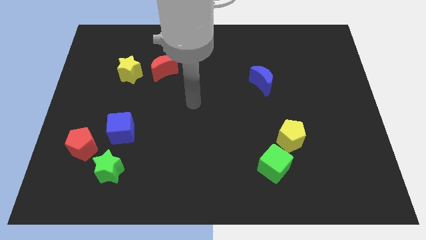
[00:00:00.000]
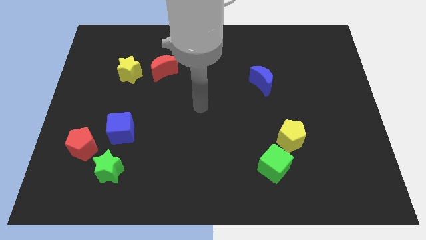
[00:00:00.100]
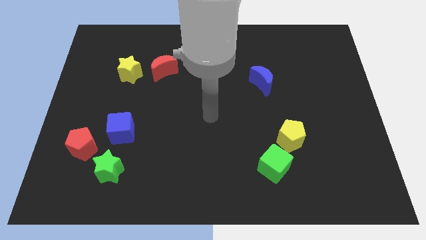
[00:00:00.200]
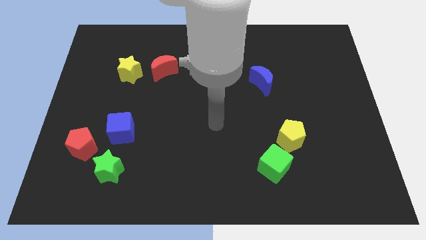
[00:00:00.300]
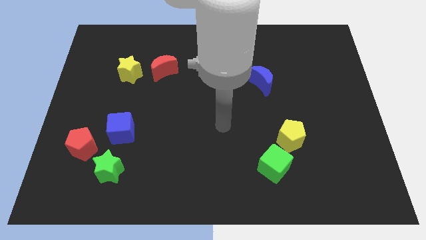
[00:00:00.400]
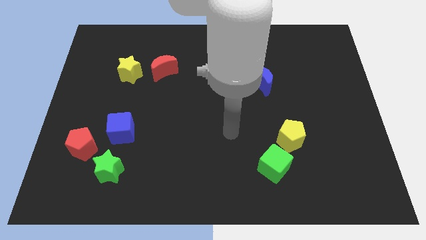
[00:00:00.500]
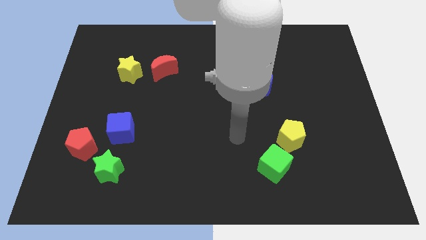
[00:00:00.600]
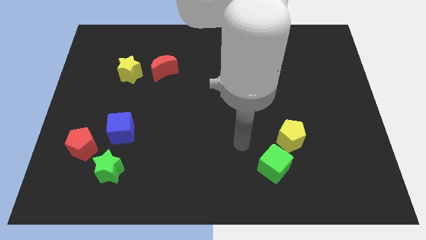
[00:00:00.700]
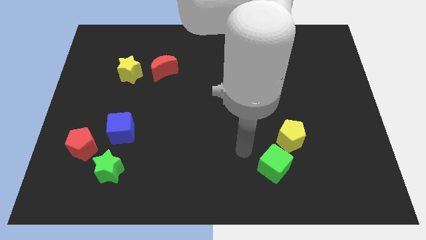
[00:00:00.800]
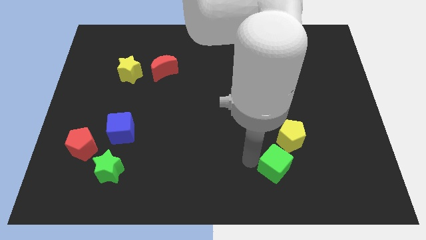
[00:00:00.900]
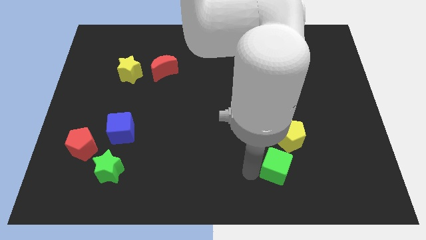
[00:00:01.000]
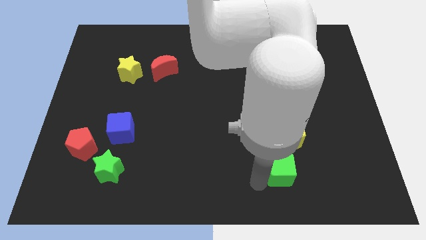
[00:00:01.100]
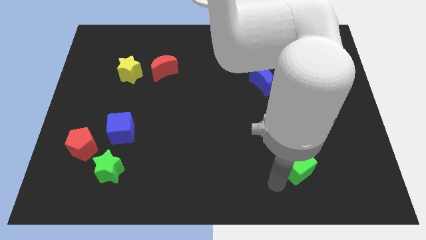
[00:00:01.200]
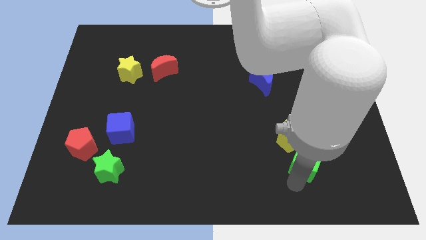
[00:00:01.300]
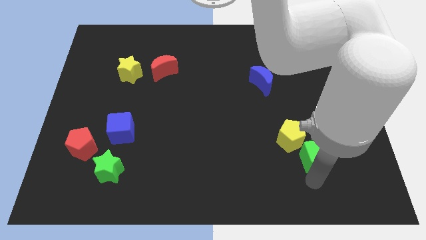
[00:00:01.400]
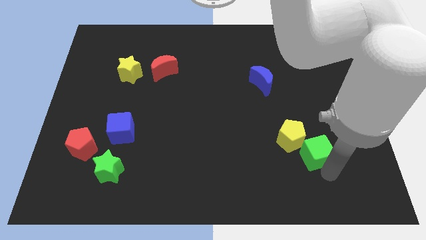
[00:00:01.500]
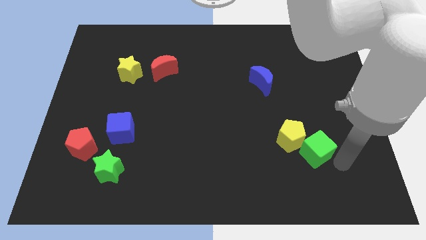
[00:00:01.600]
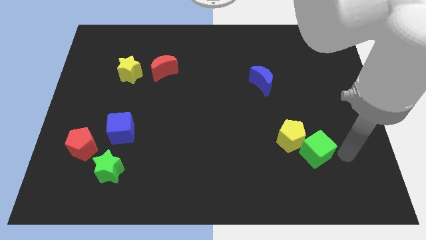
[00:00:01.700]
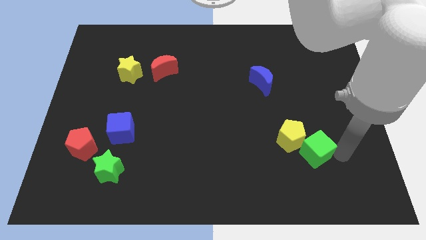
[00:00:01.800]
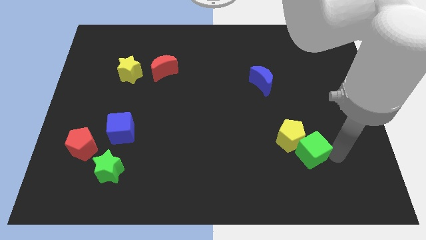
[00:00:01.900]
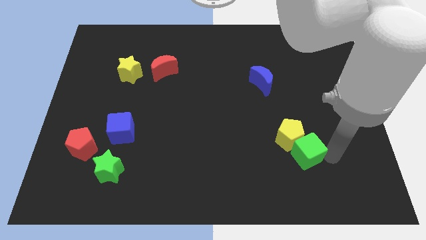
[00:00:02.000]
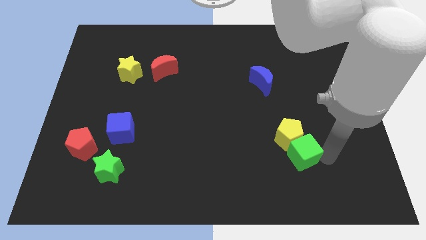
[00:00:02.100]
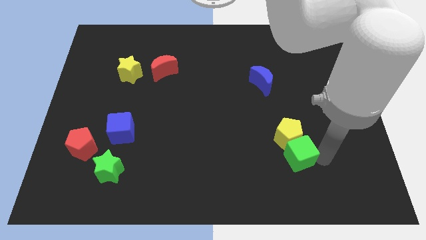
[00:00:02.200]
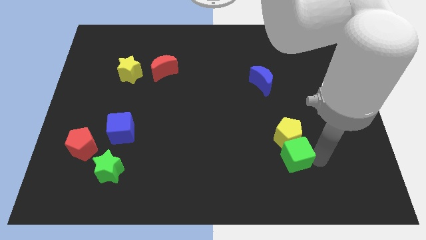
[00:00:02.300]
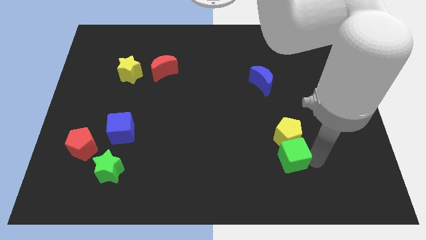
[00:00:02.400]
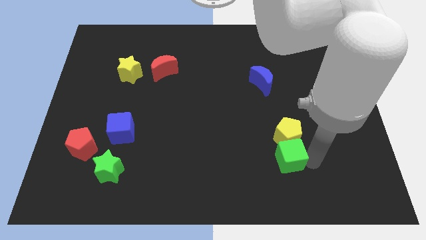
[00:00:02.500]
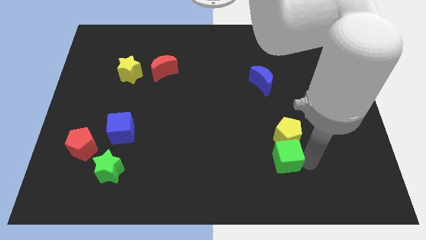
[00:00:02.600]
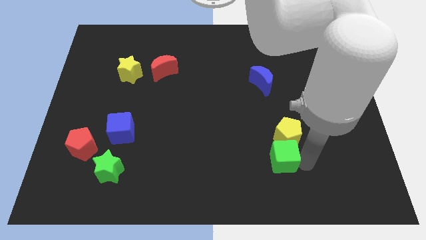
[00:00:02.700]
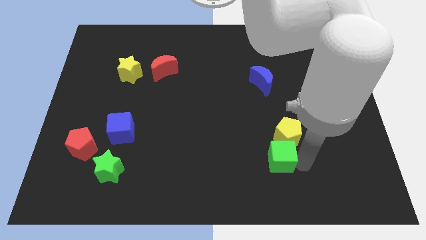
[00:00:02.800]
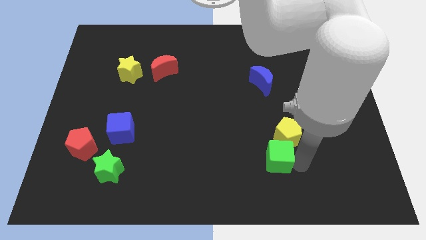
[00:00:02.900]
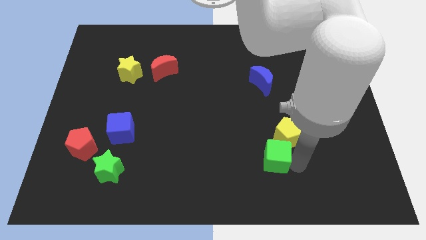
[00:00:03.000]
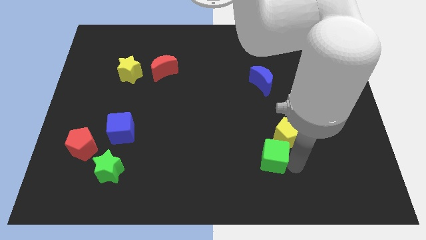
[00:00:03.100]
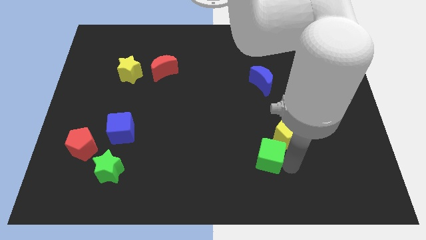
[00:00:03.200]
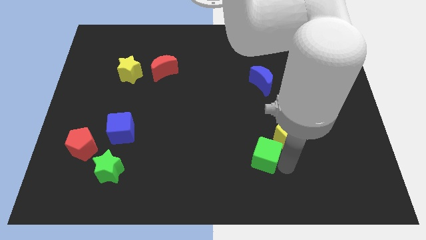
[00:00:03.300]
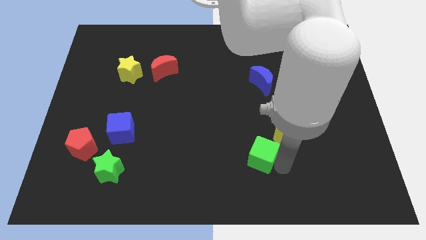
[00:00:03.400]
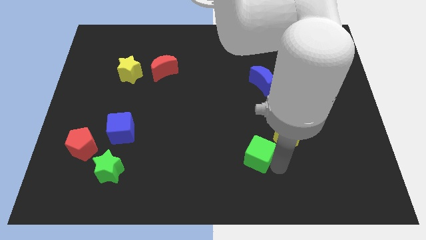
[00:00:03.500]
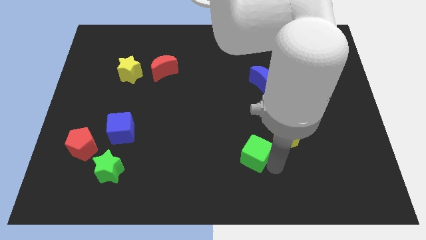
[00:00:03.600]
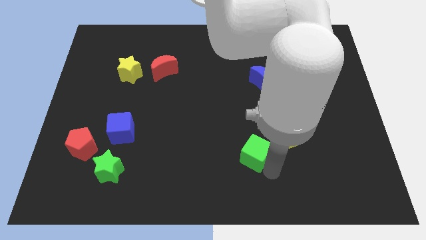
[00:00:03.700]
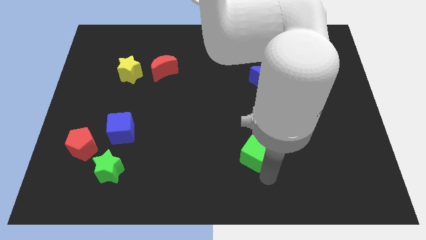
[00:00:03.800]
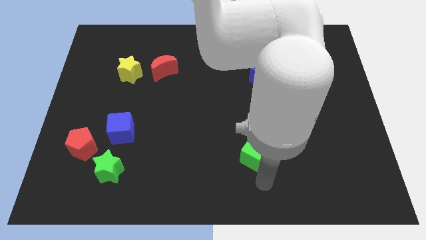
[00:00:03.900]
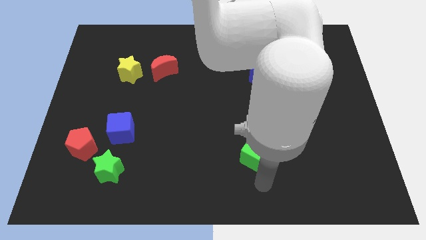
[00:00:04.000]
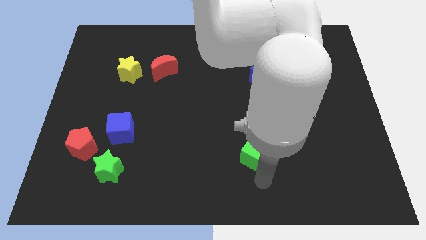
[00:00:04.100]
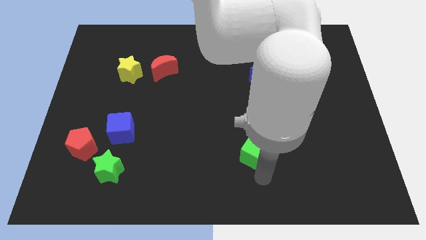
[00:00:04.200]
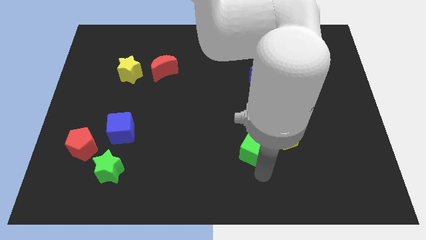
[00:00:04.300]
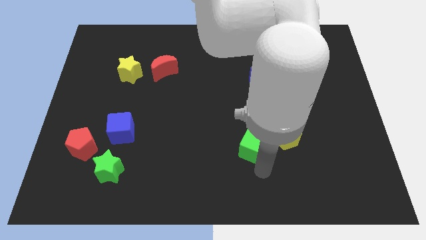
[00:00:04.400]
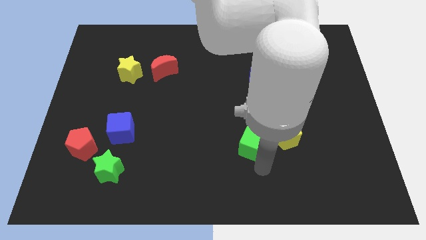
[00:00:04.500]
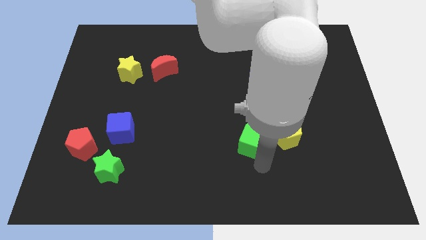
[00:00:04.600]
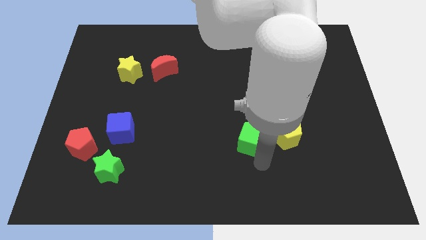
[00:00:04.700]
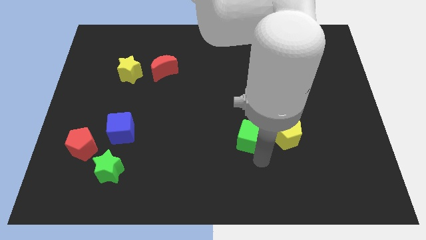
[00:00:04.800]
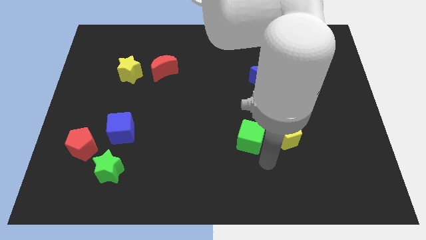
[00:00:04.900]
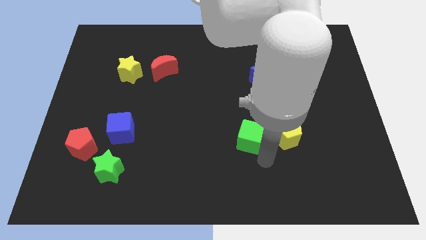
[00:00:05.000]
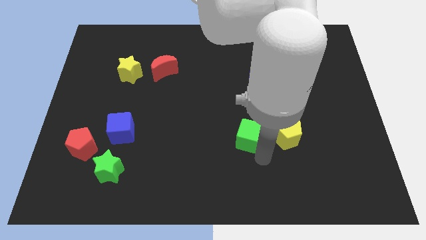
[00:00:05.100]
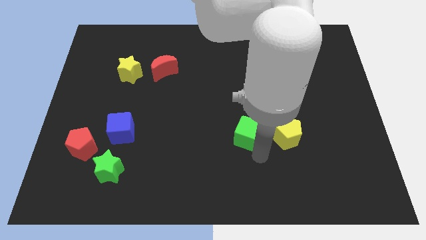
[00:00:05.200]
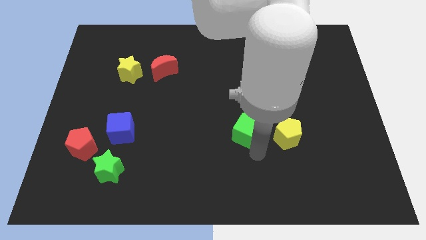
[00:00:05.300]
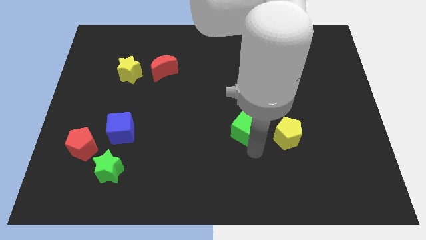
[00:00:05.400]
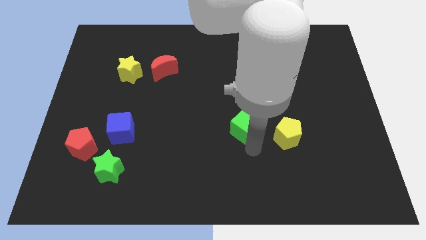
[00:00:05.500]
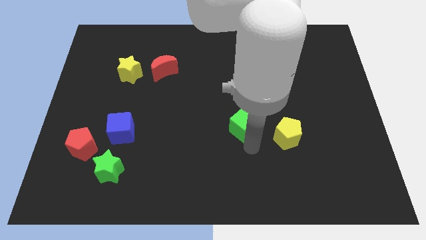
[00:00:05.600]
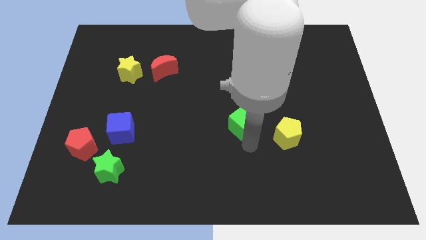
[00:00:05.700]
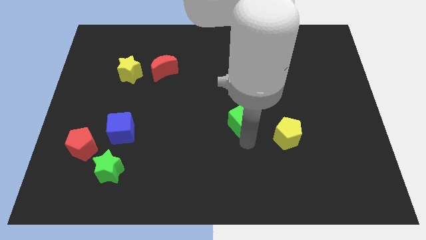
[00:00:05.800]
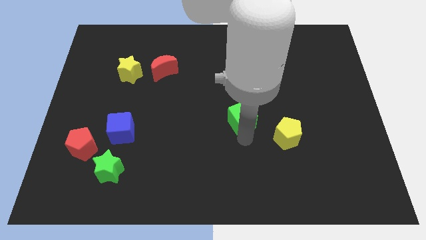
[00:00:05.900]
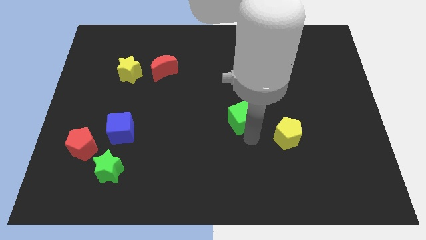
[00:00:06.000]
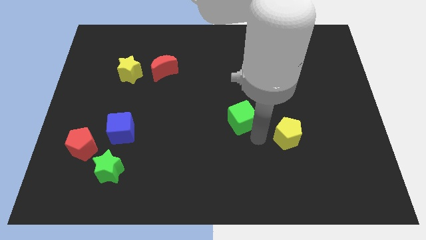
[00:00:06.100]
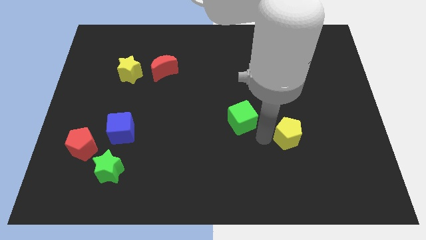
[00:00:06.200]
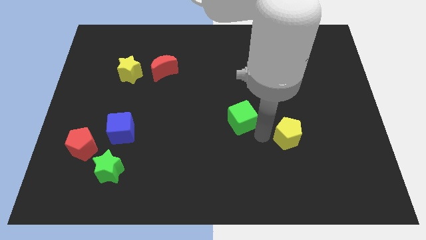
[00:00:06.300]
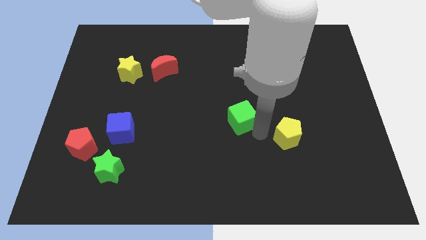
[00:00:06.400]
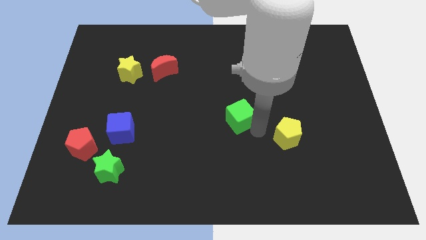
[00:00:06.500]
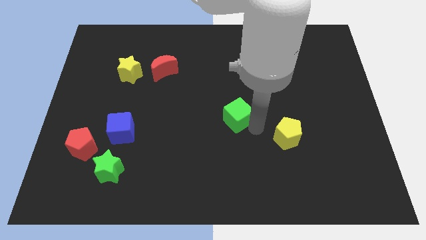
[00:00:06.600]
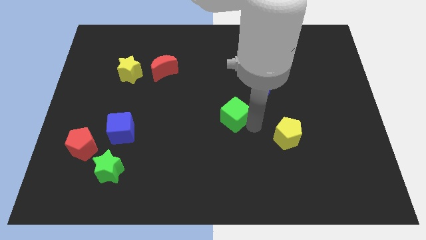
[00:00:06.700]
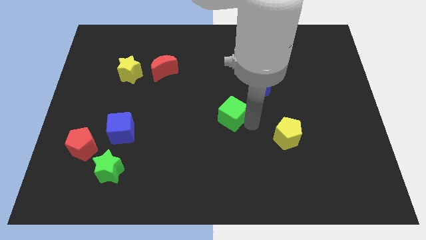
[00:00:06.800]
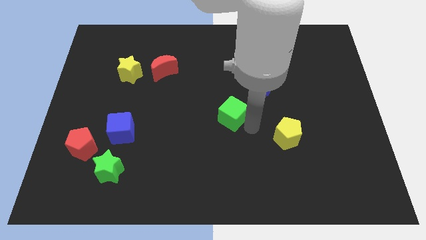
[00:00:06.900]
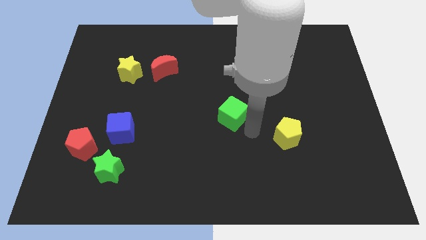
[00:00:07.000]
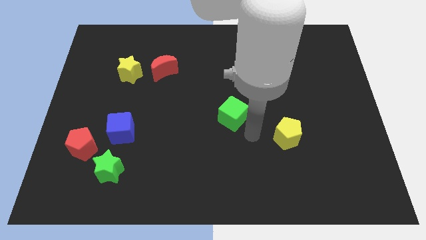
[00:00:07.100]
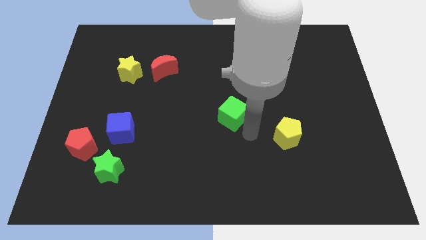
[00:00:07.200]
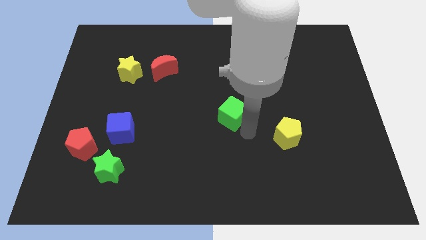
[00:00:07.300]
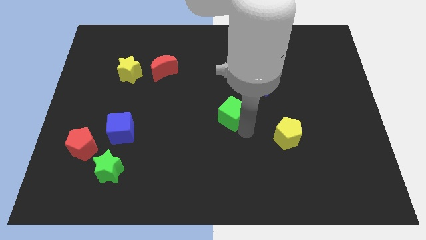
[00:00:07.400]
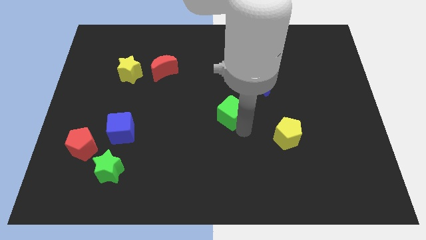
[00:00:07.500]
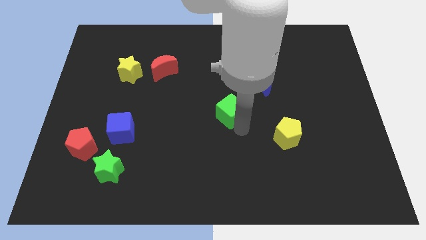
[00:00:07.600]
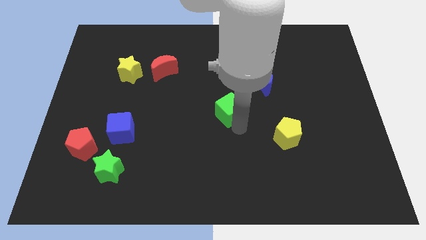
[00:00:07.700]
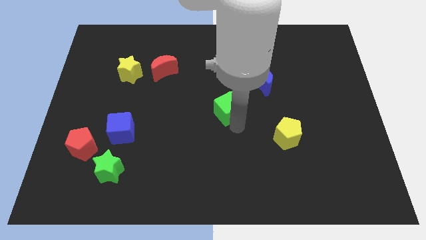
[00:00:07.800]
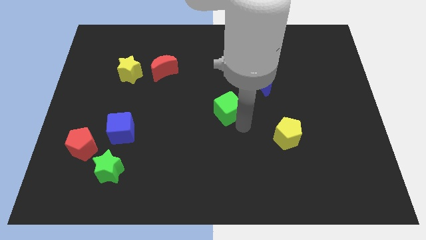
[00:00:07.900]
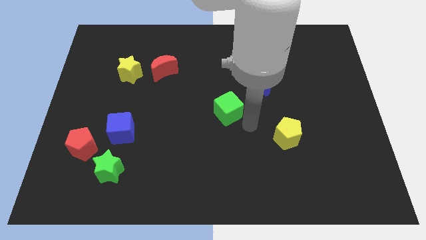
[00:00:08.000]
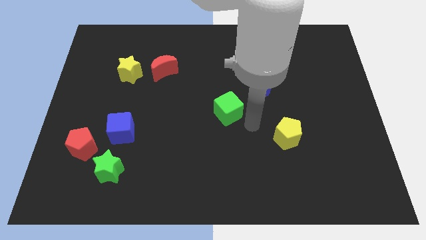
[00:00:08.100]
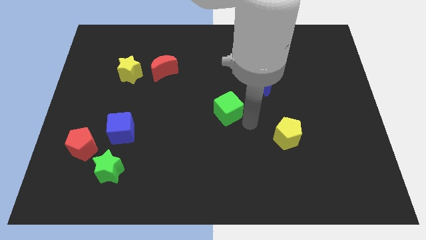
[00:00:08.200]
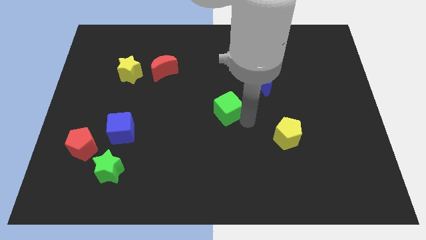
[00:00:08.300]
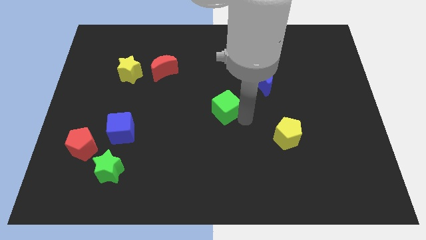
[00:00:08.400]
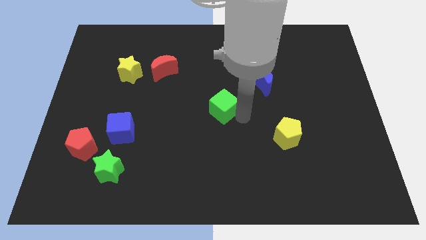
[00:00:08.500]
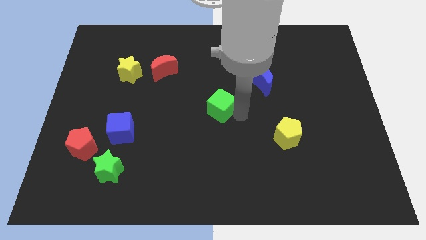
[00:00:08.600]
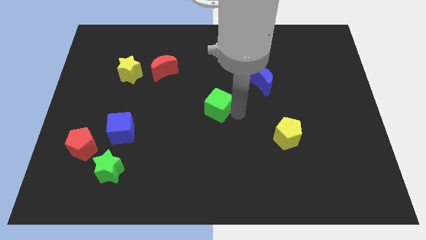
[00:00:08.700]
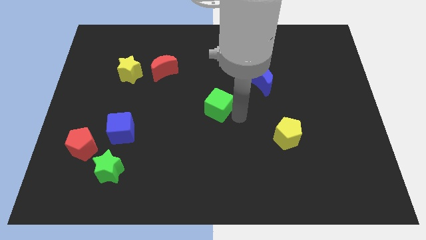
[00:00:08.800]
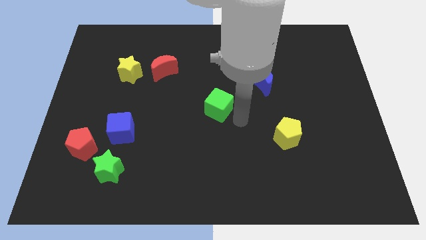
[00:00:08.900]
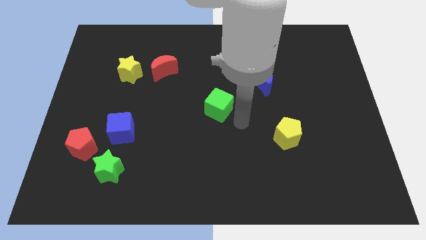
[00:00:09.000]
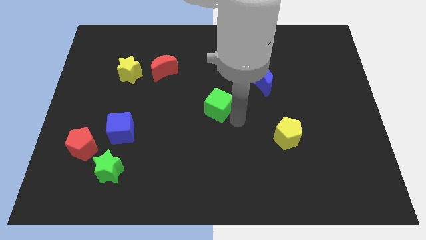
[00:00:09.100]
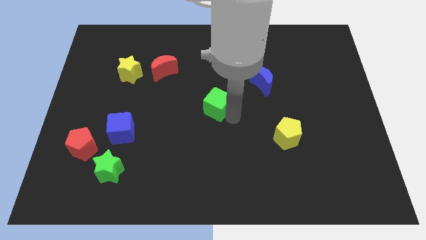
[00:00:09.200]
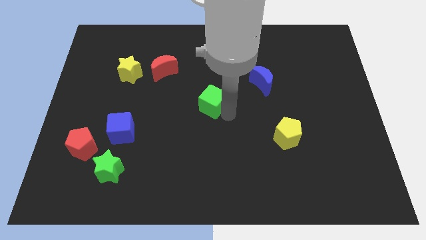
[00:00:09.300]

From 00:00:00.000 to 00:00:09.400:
slide the green cube upwards and to the left
